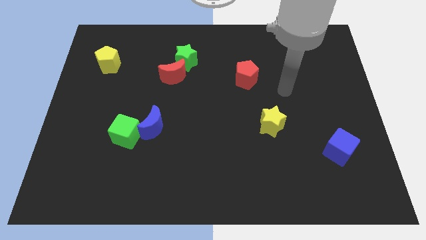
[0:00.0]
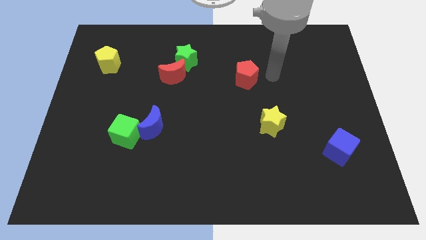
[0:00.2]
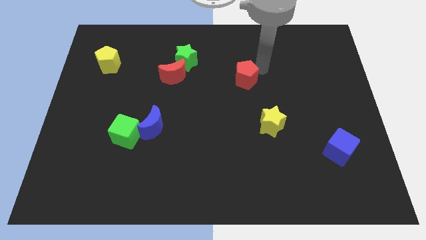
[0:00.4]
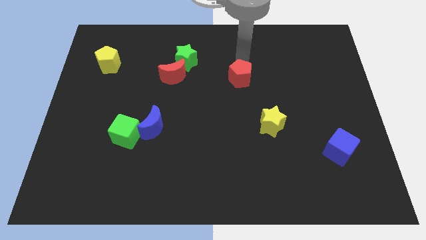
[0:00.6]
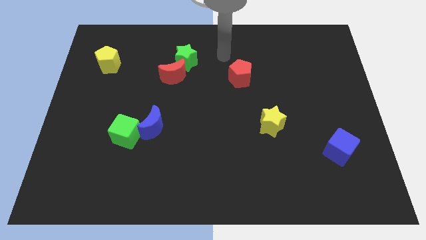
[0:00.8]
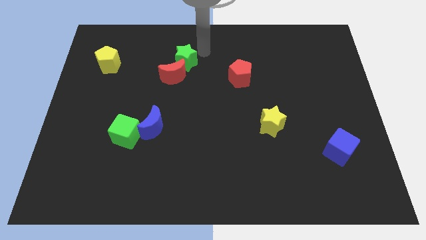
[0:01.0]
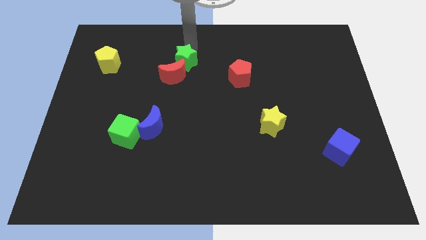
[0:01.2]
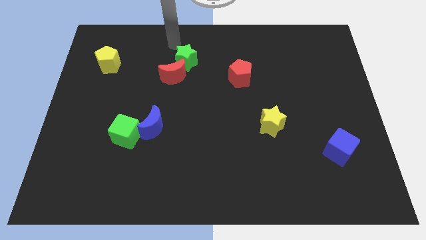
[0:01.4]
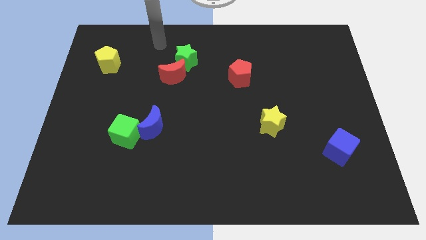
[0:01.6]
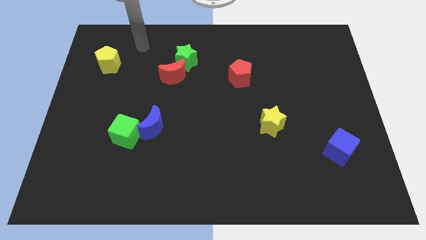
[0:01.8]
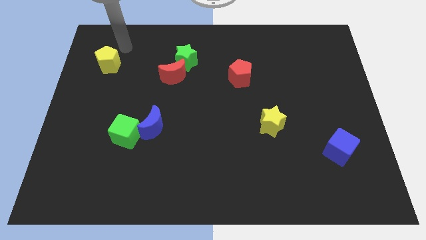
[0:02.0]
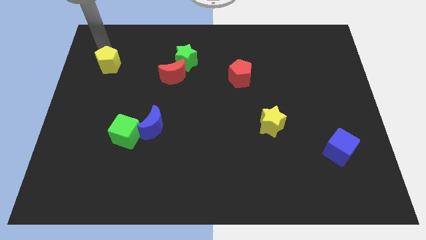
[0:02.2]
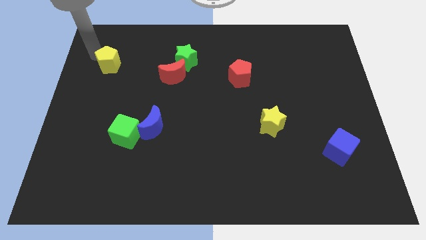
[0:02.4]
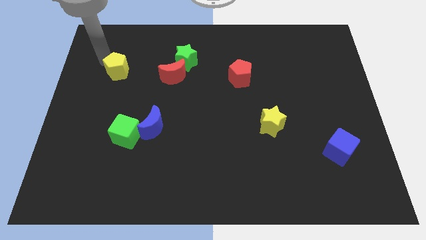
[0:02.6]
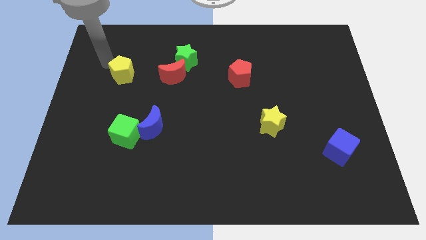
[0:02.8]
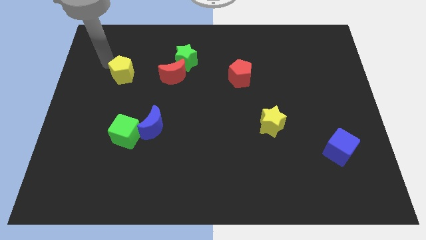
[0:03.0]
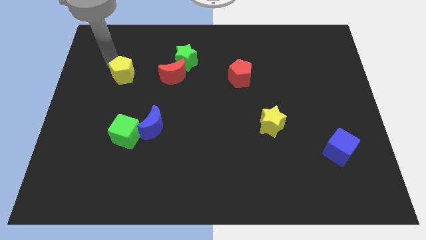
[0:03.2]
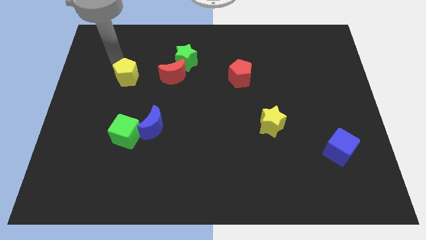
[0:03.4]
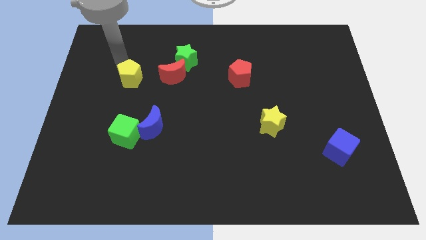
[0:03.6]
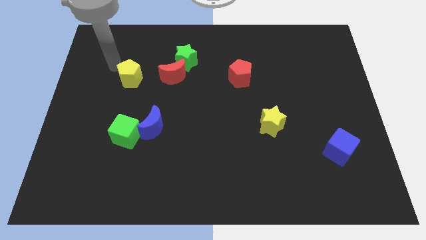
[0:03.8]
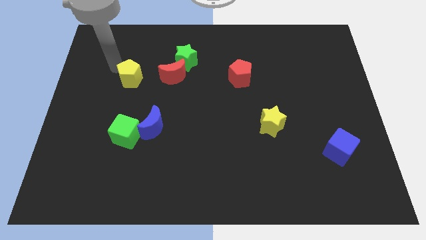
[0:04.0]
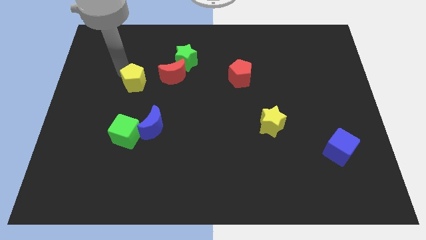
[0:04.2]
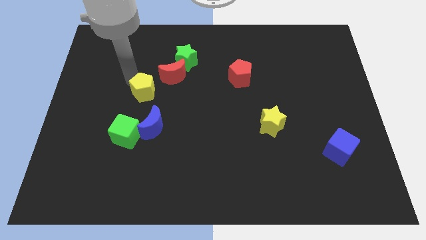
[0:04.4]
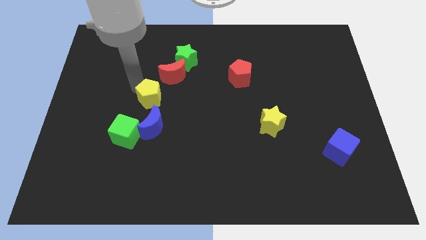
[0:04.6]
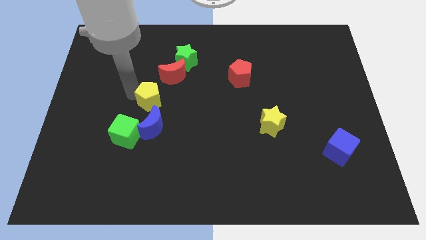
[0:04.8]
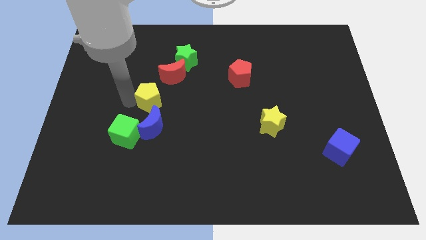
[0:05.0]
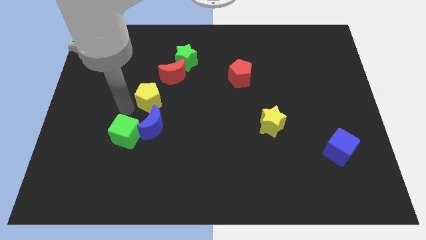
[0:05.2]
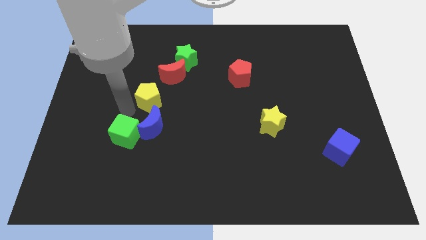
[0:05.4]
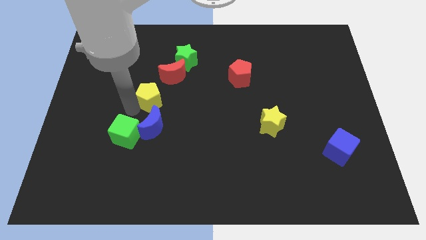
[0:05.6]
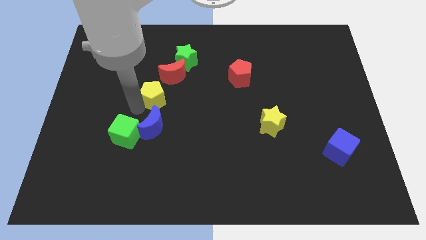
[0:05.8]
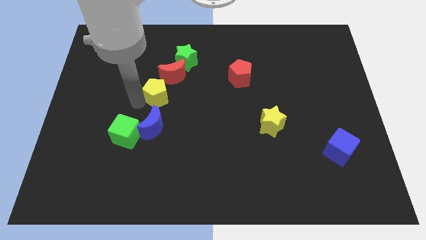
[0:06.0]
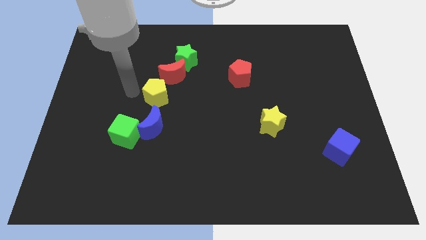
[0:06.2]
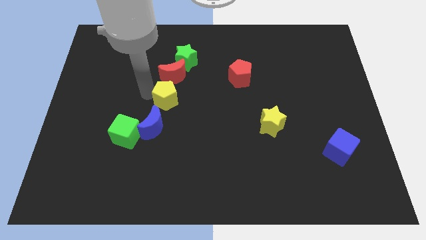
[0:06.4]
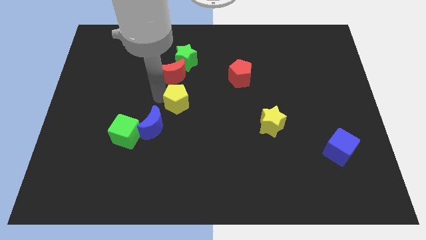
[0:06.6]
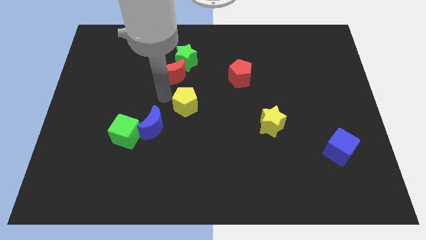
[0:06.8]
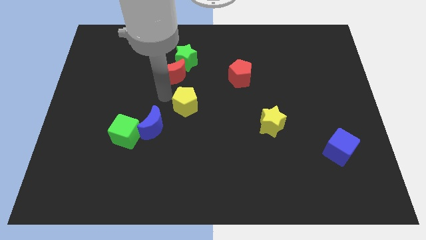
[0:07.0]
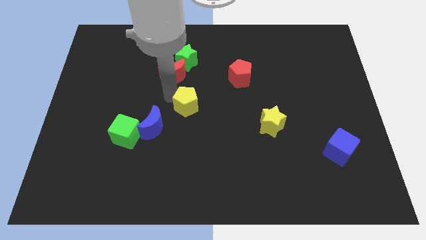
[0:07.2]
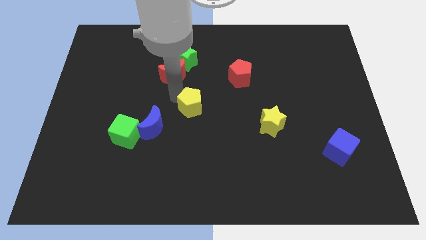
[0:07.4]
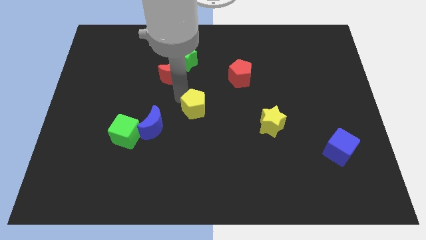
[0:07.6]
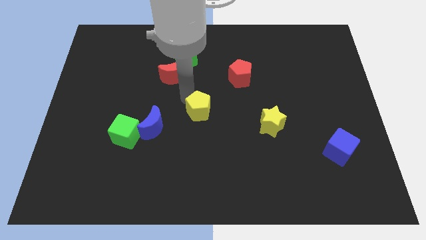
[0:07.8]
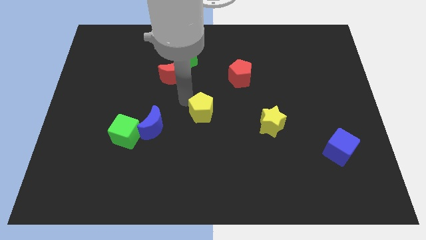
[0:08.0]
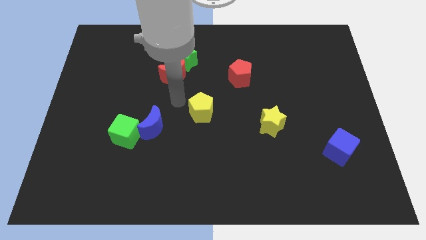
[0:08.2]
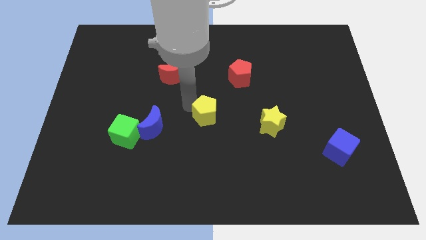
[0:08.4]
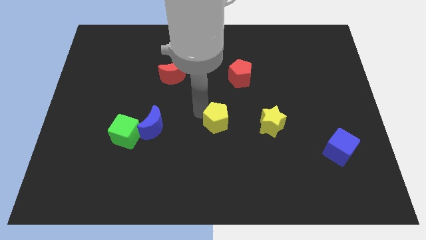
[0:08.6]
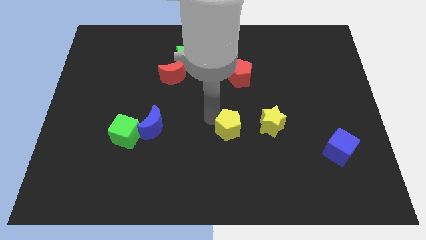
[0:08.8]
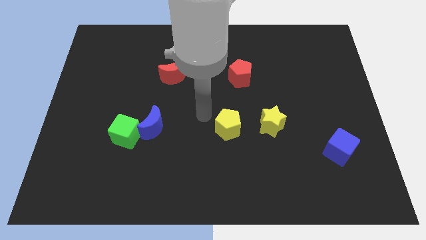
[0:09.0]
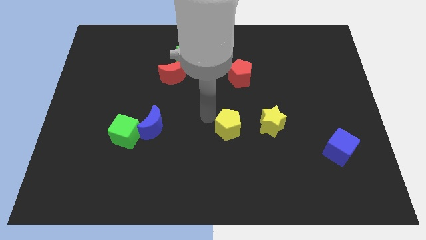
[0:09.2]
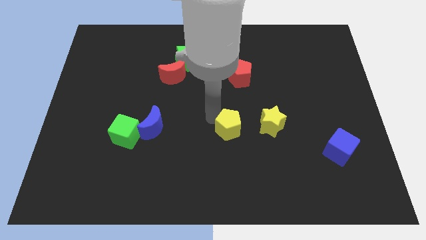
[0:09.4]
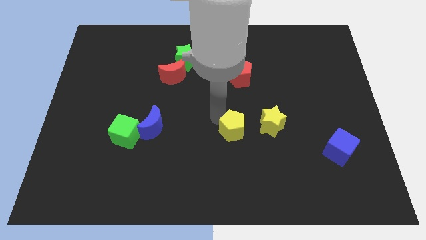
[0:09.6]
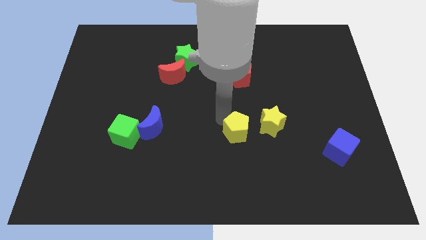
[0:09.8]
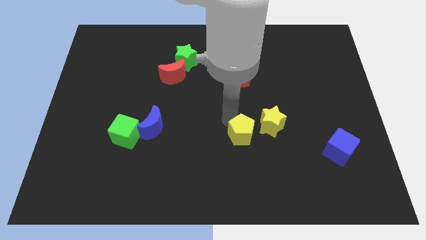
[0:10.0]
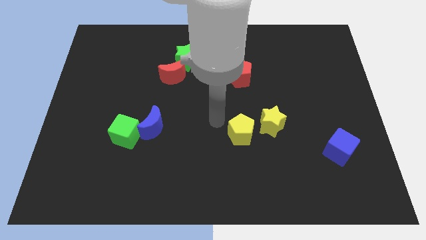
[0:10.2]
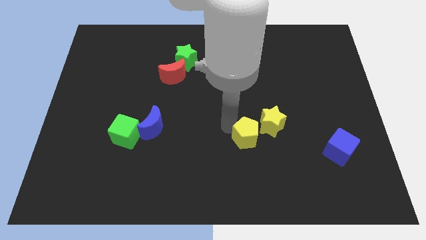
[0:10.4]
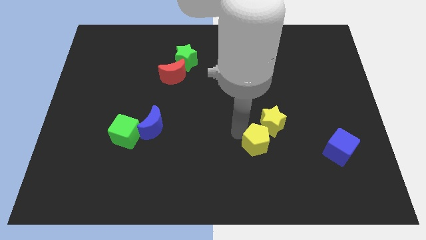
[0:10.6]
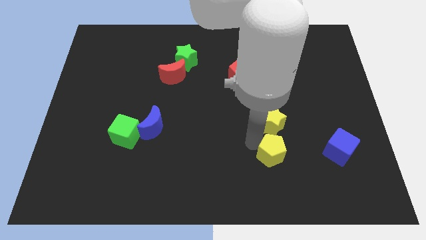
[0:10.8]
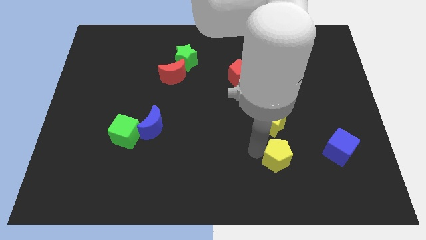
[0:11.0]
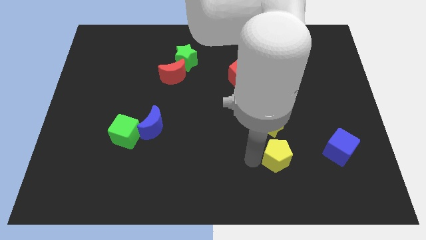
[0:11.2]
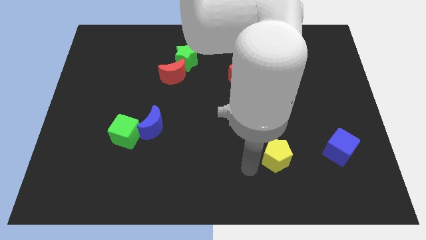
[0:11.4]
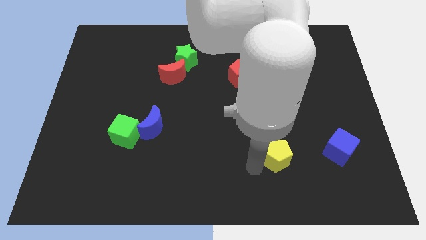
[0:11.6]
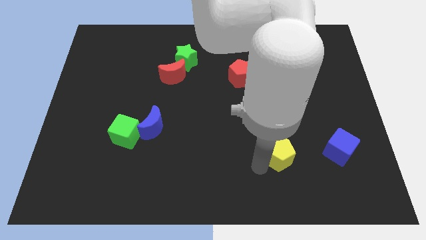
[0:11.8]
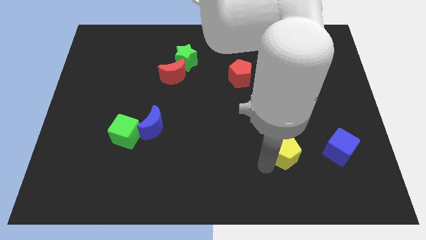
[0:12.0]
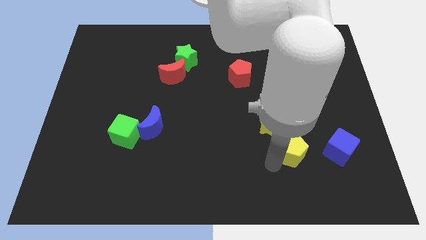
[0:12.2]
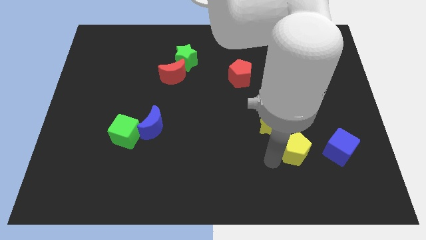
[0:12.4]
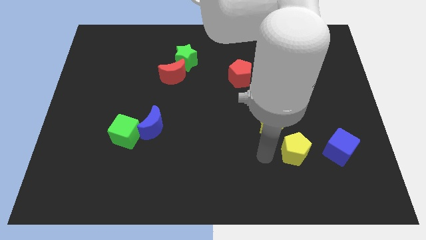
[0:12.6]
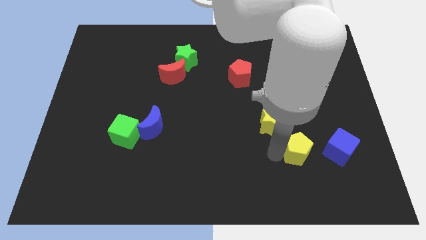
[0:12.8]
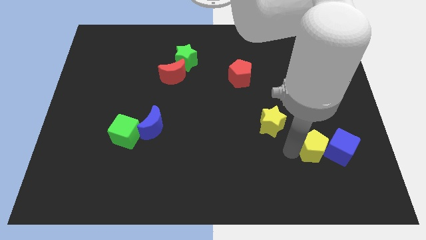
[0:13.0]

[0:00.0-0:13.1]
slide the yellow pentagon next to the blue cube
